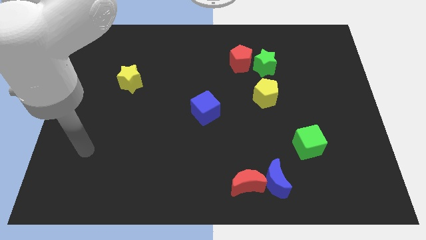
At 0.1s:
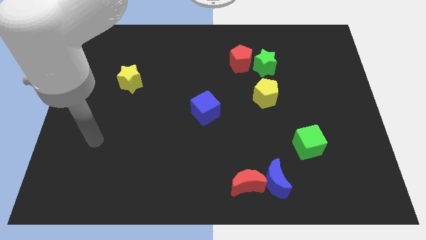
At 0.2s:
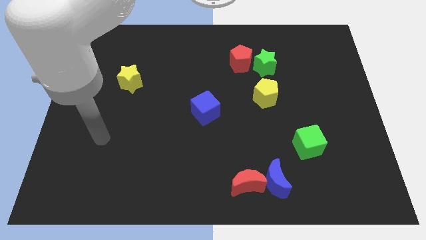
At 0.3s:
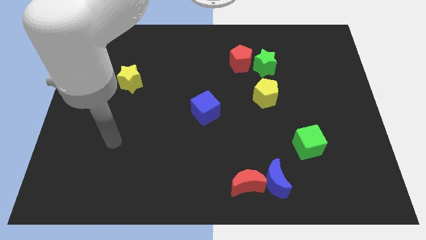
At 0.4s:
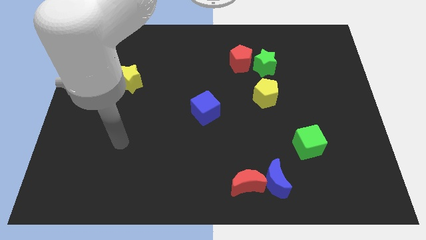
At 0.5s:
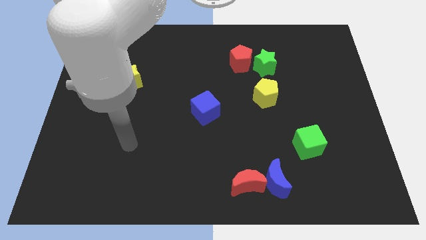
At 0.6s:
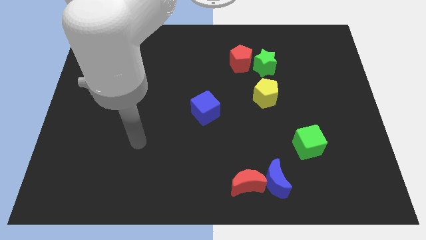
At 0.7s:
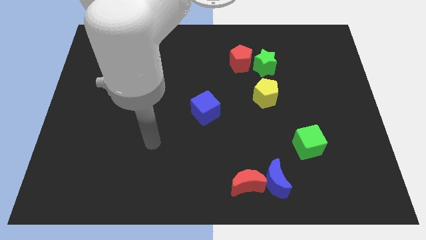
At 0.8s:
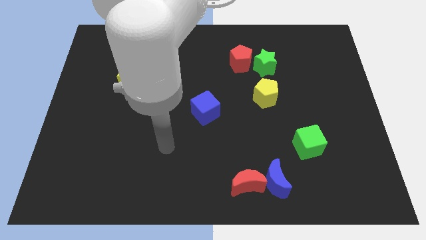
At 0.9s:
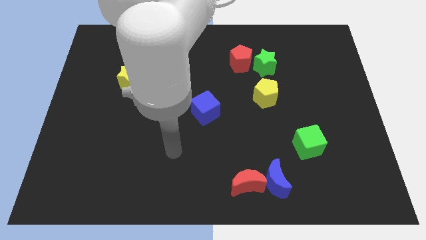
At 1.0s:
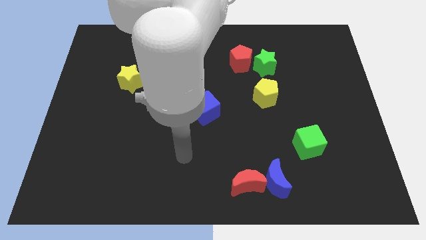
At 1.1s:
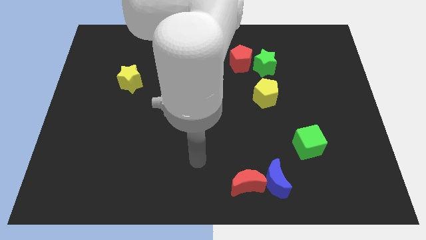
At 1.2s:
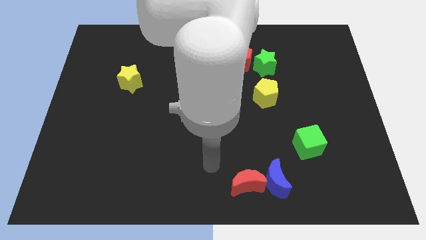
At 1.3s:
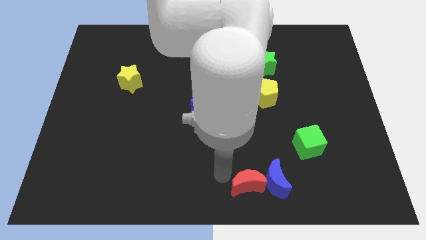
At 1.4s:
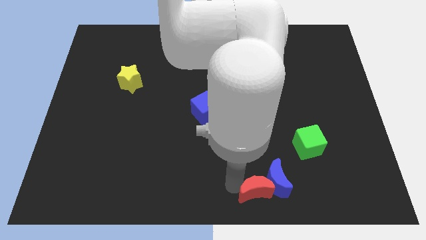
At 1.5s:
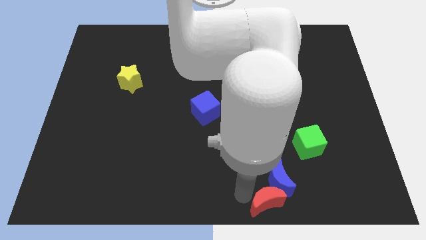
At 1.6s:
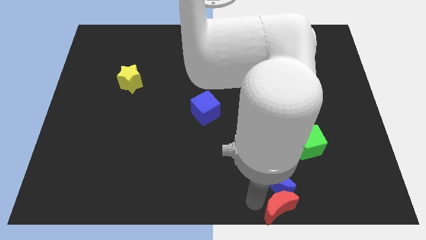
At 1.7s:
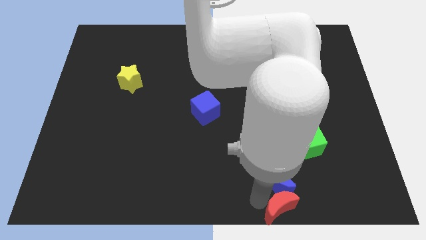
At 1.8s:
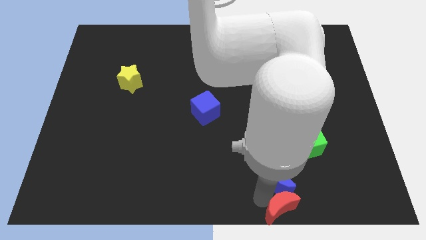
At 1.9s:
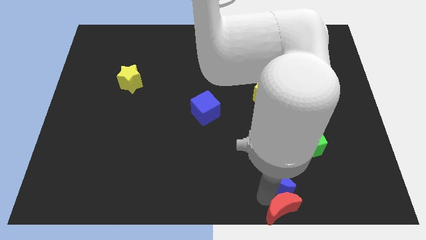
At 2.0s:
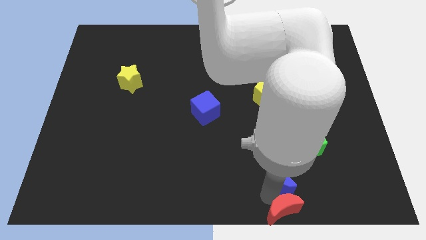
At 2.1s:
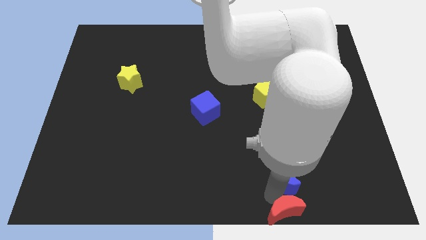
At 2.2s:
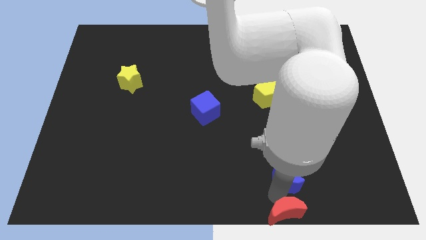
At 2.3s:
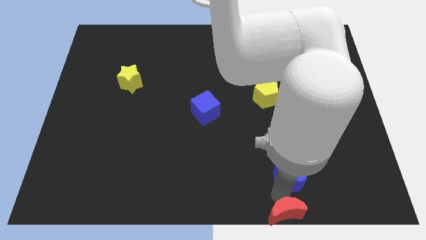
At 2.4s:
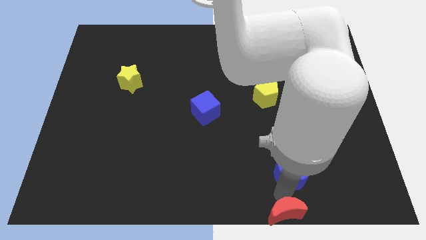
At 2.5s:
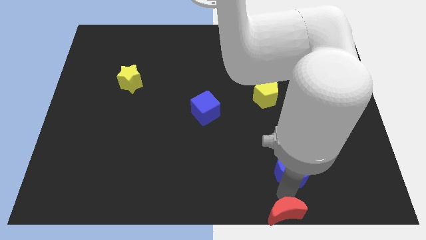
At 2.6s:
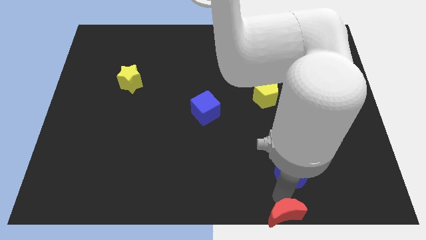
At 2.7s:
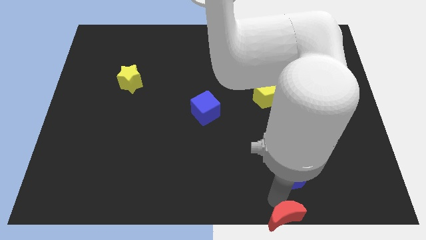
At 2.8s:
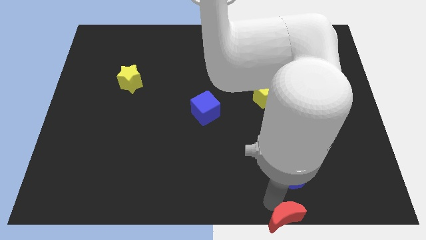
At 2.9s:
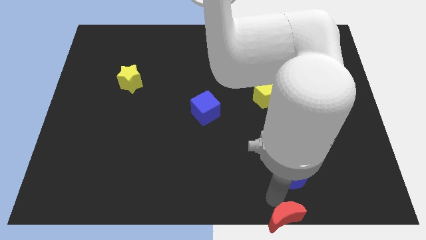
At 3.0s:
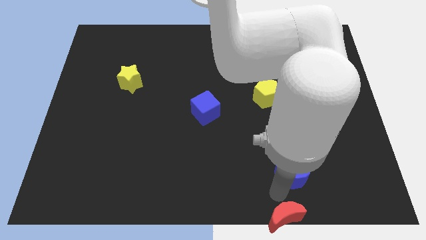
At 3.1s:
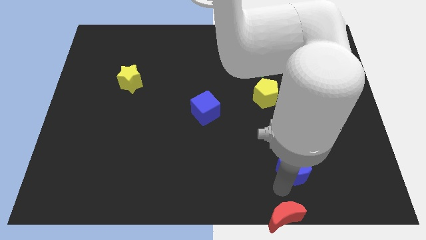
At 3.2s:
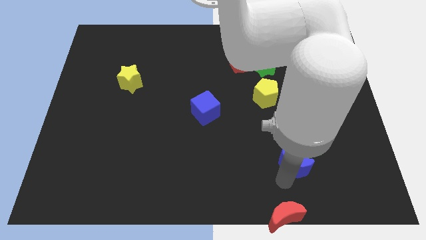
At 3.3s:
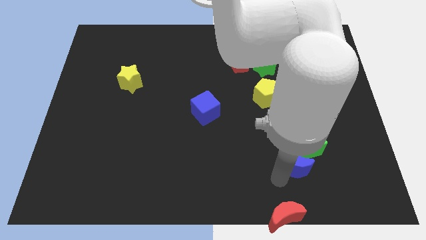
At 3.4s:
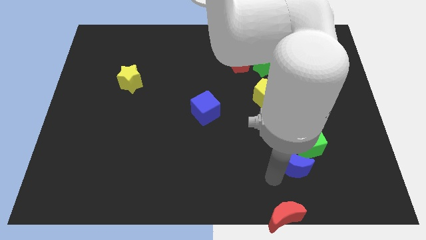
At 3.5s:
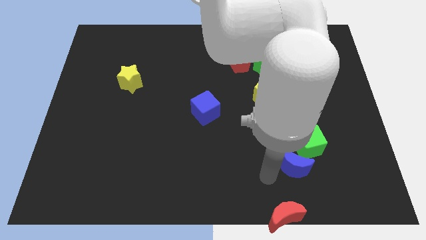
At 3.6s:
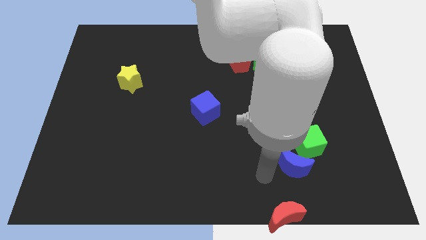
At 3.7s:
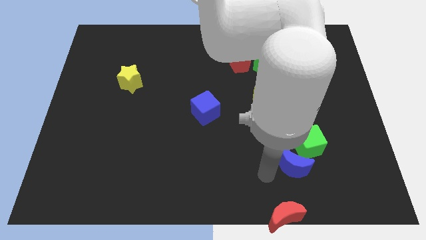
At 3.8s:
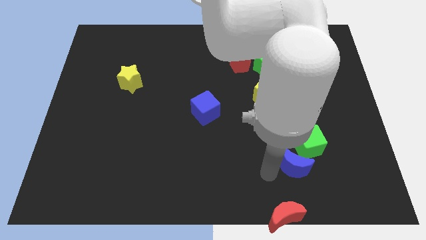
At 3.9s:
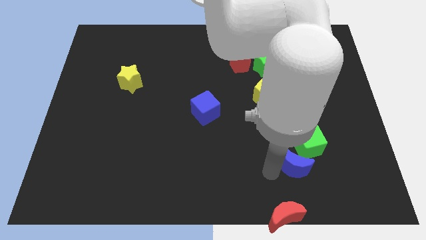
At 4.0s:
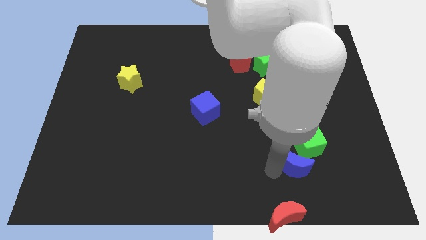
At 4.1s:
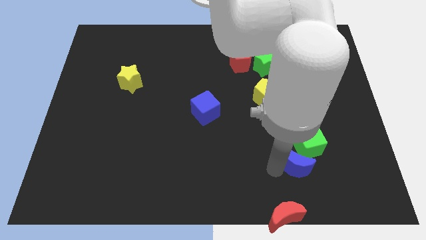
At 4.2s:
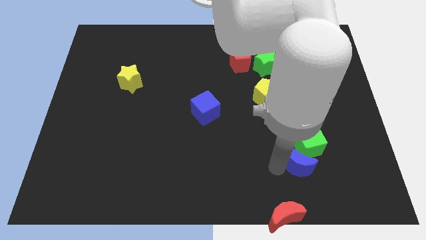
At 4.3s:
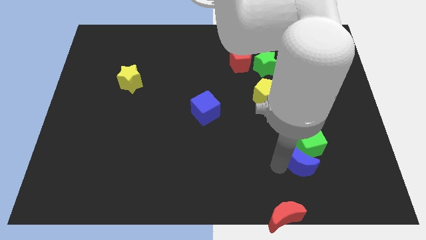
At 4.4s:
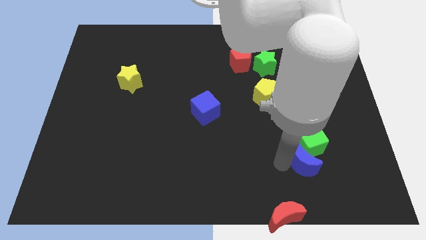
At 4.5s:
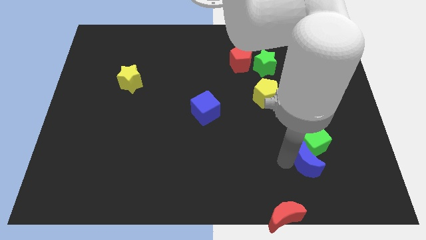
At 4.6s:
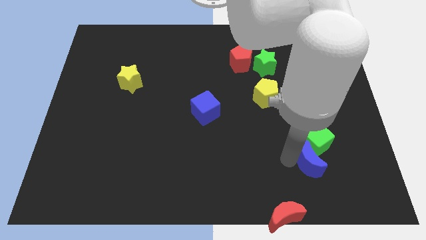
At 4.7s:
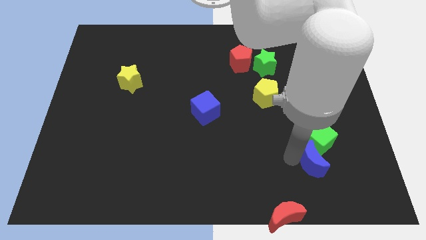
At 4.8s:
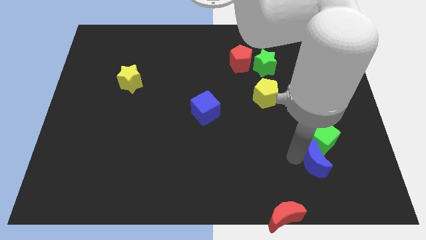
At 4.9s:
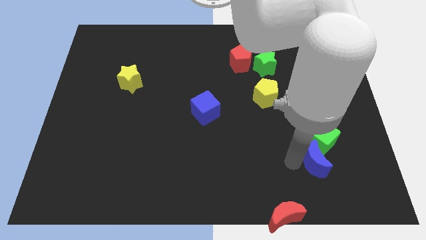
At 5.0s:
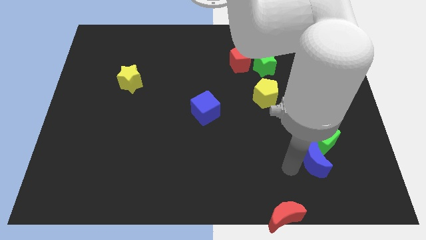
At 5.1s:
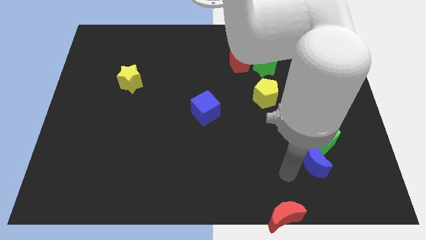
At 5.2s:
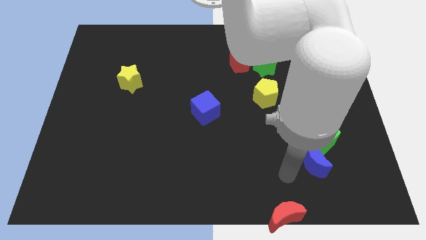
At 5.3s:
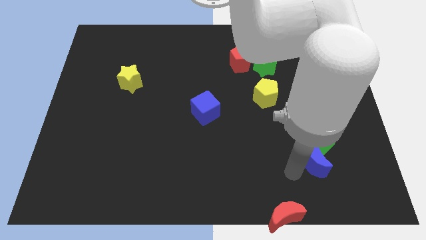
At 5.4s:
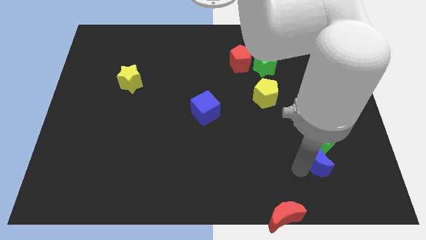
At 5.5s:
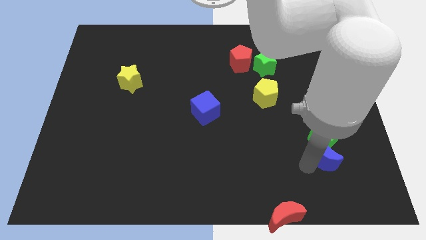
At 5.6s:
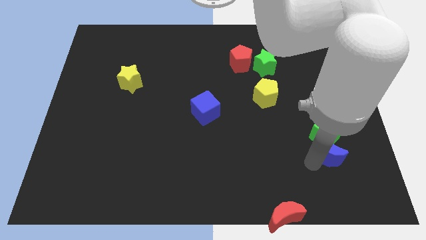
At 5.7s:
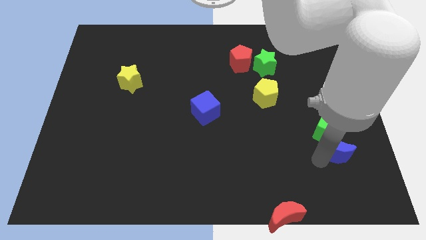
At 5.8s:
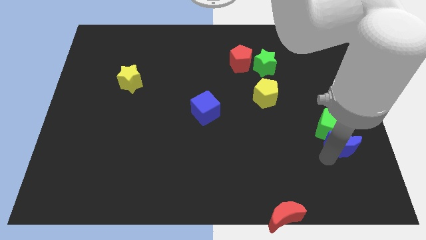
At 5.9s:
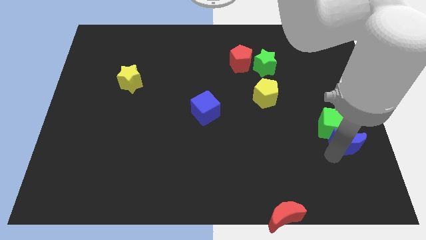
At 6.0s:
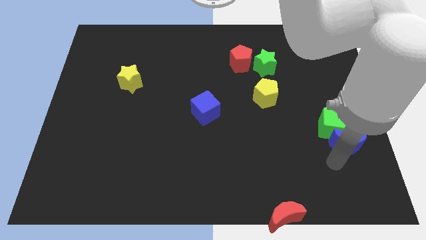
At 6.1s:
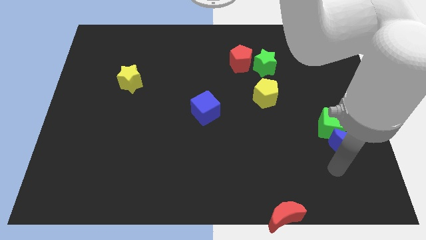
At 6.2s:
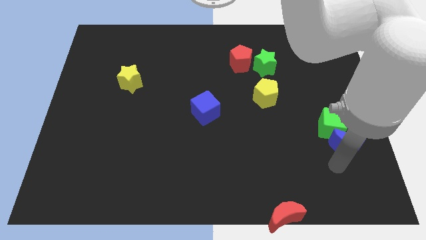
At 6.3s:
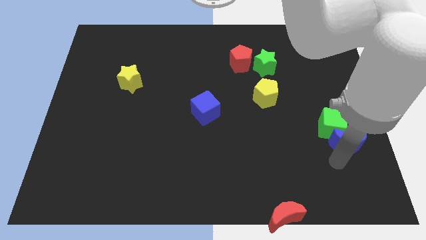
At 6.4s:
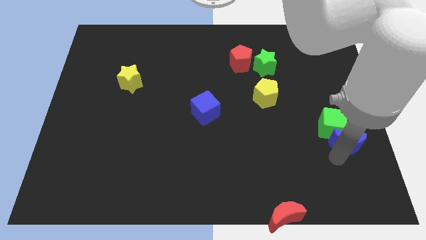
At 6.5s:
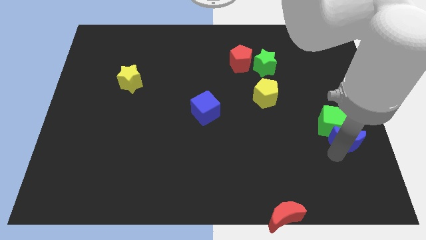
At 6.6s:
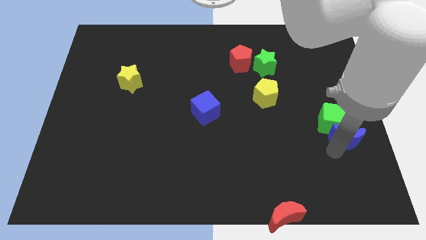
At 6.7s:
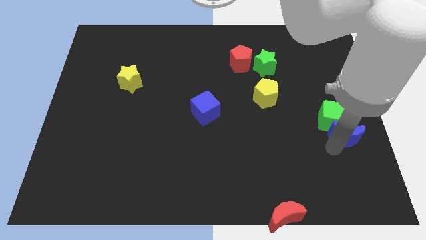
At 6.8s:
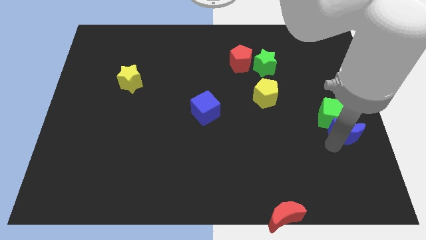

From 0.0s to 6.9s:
move the blue moon to the right side of the board

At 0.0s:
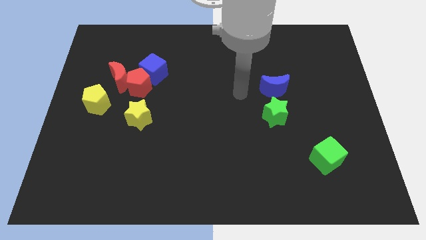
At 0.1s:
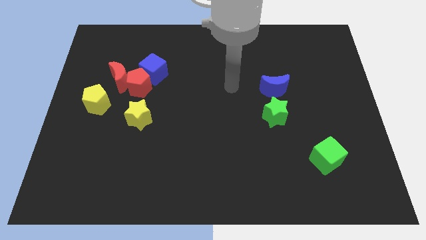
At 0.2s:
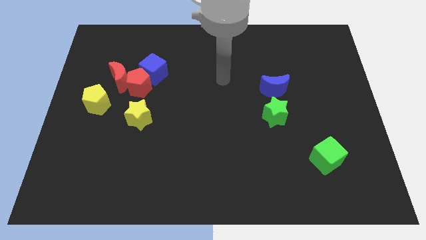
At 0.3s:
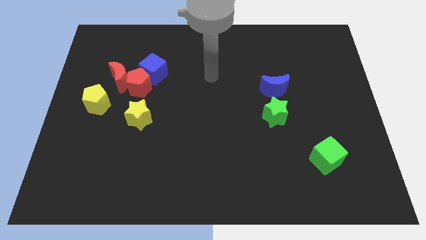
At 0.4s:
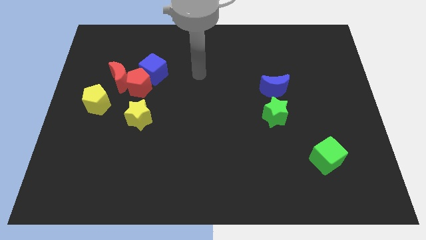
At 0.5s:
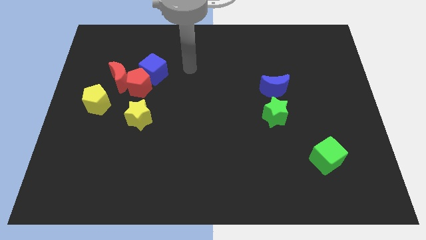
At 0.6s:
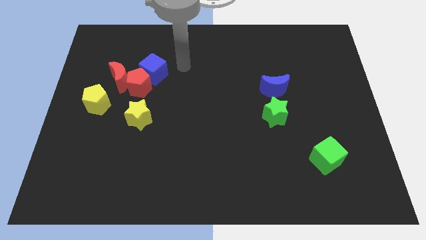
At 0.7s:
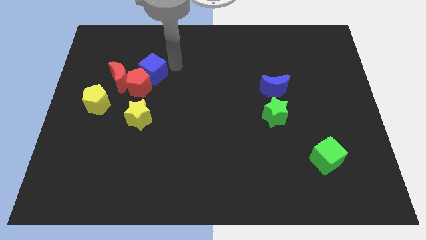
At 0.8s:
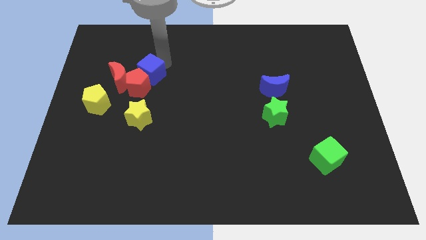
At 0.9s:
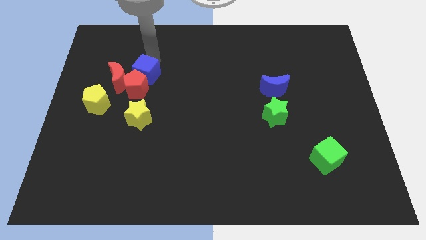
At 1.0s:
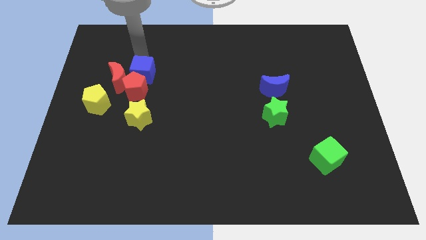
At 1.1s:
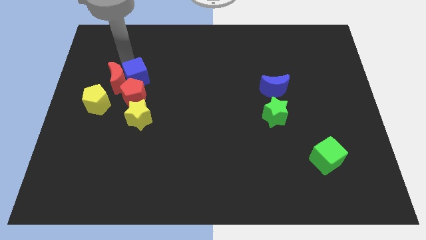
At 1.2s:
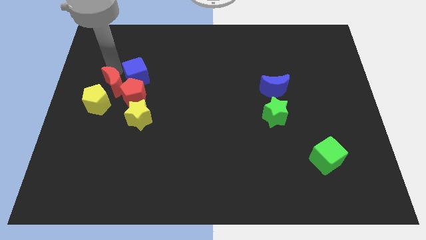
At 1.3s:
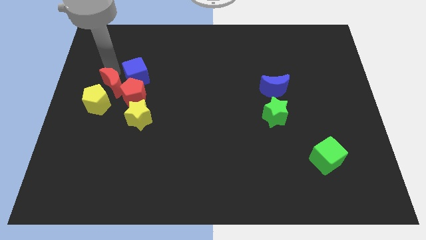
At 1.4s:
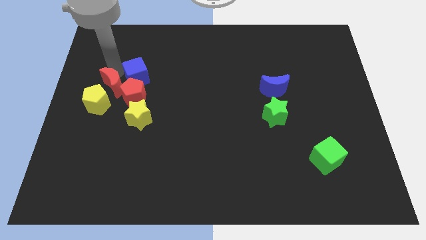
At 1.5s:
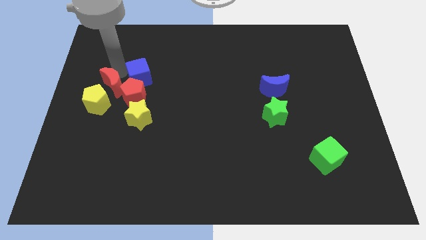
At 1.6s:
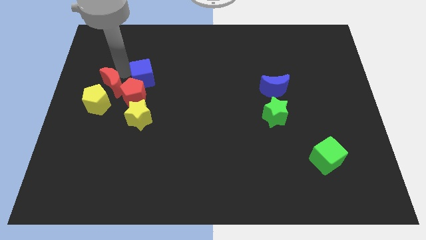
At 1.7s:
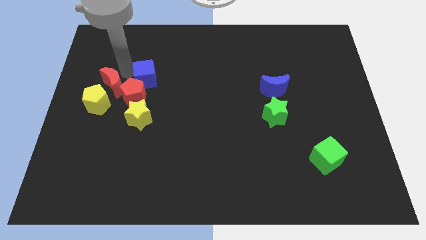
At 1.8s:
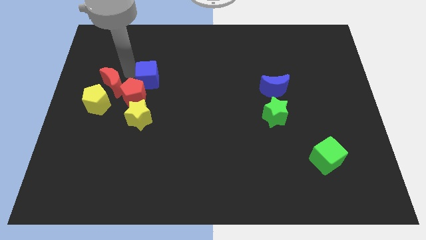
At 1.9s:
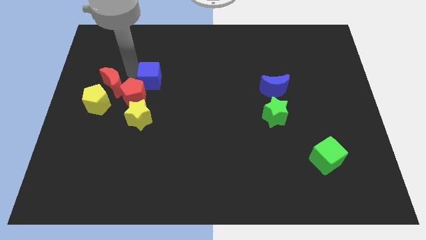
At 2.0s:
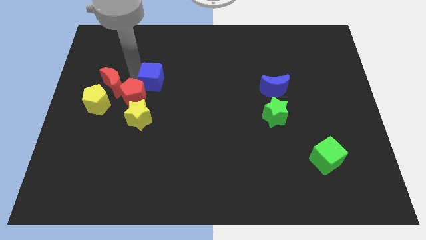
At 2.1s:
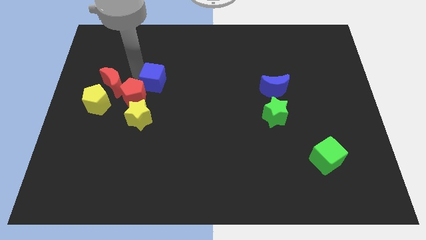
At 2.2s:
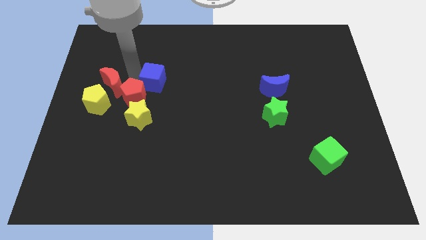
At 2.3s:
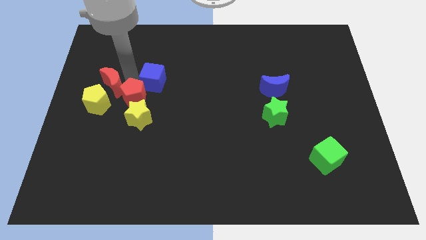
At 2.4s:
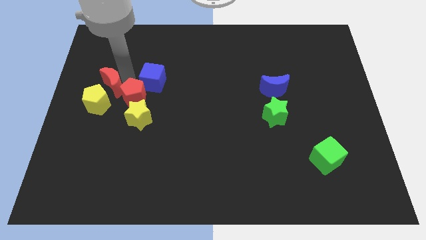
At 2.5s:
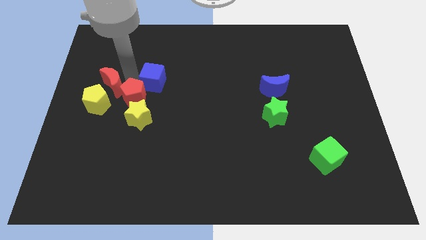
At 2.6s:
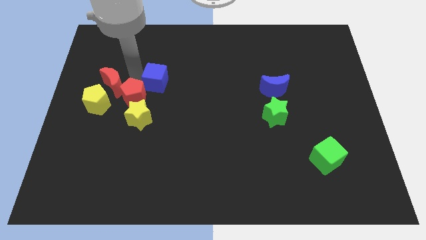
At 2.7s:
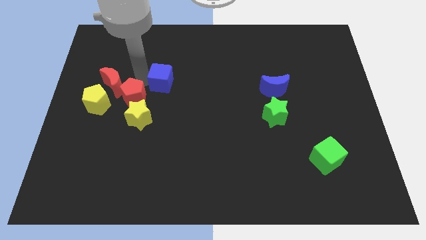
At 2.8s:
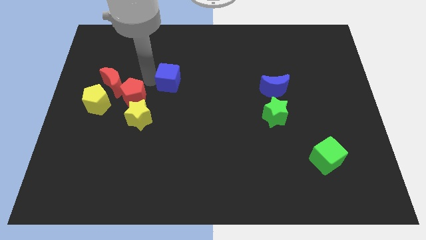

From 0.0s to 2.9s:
put the blue cube to the center
